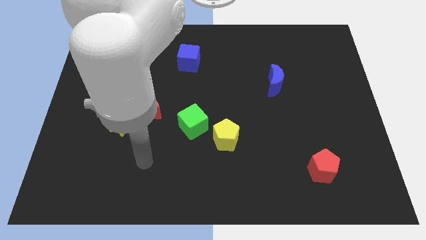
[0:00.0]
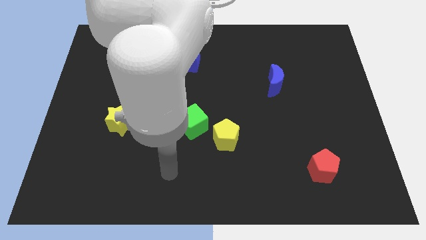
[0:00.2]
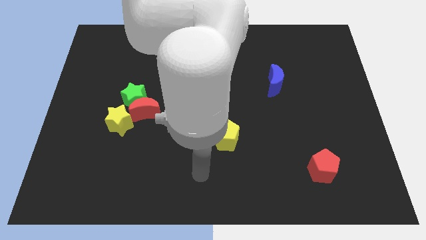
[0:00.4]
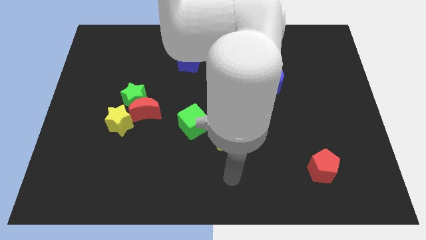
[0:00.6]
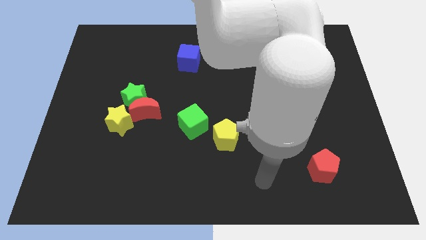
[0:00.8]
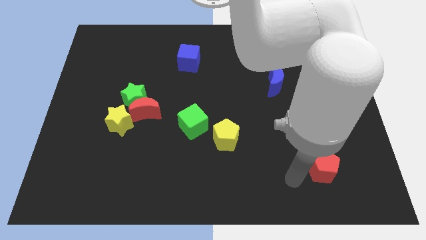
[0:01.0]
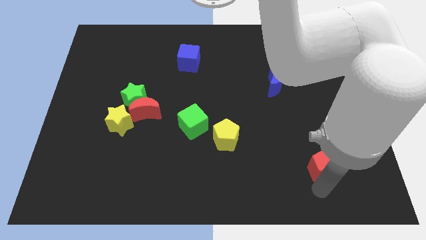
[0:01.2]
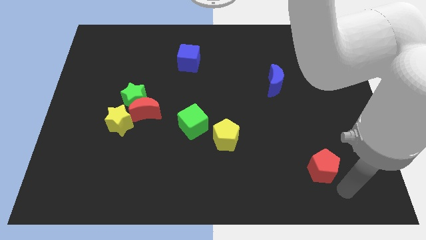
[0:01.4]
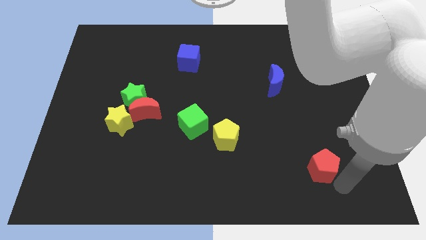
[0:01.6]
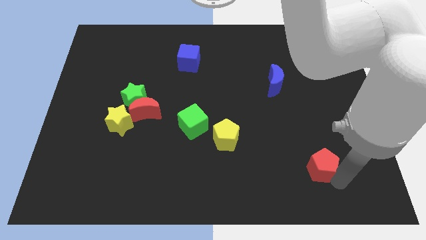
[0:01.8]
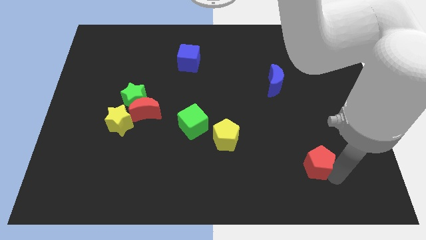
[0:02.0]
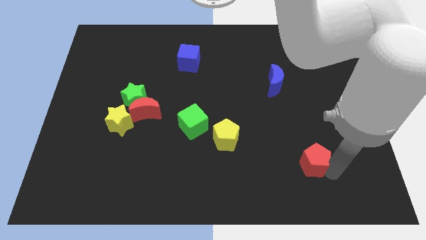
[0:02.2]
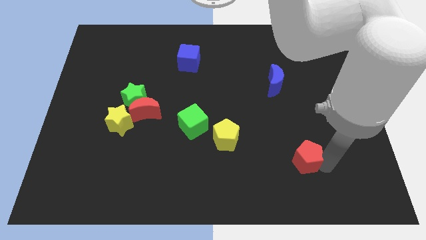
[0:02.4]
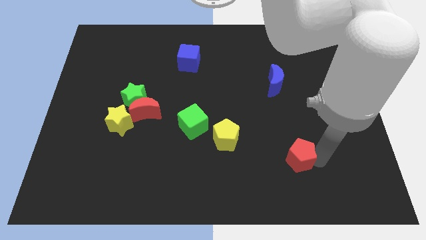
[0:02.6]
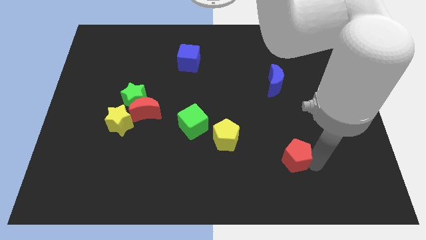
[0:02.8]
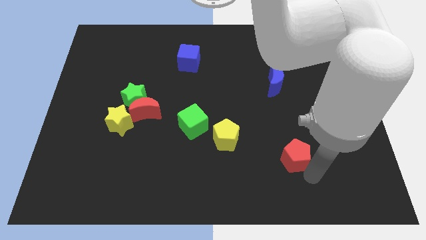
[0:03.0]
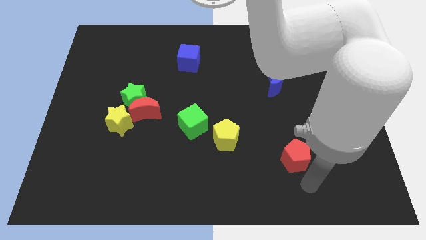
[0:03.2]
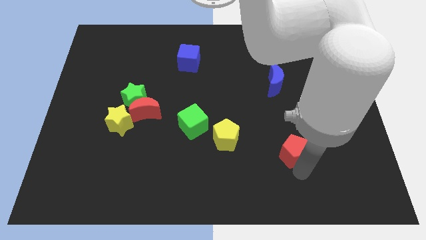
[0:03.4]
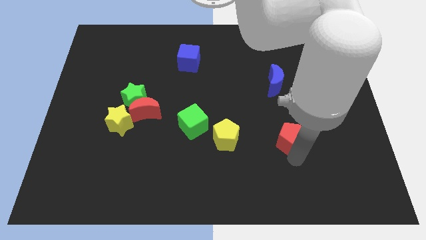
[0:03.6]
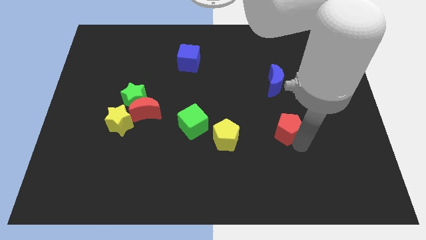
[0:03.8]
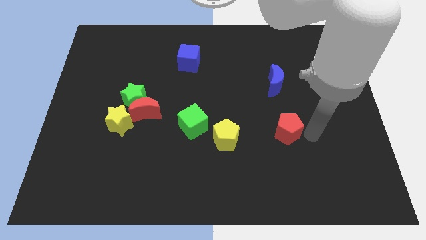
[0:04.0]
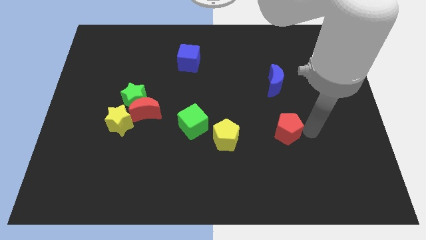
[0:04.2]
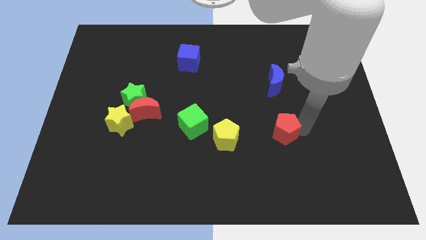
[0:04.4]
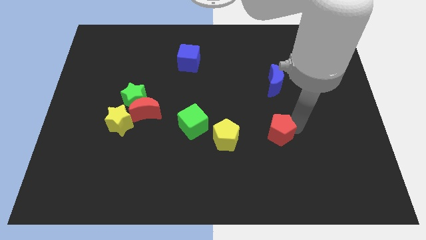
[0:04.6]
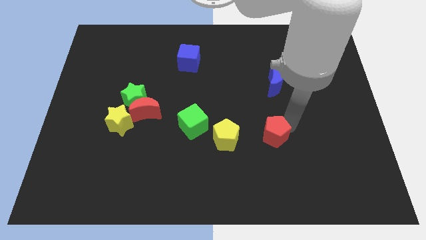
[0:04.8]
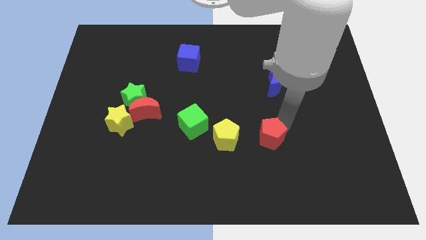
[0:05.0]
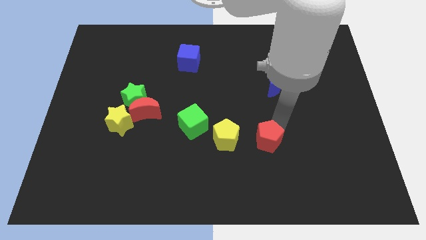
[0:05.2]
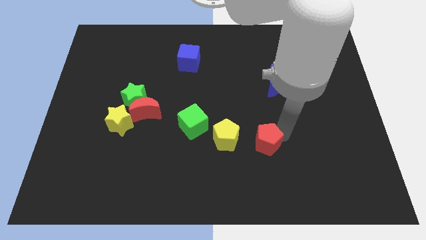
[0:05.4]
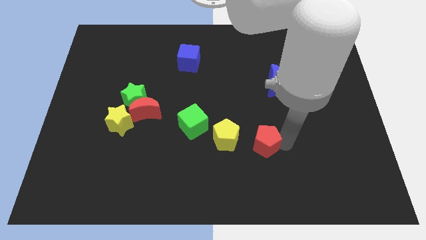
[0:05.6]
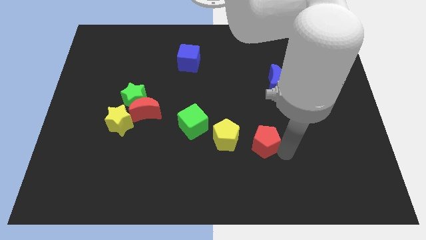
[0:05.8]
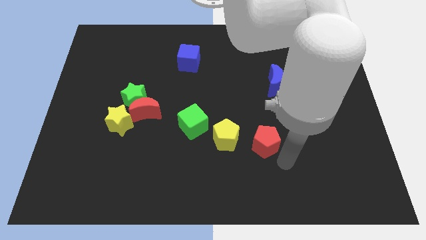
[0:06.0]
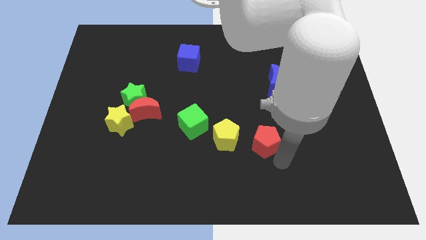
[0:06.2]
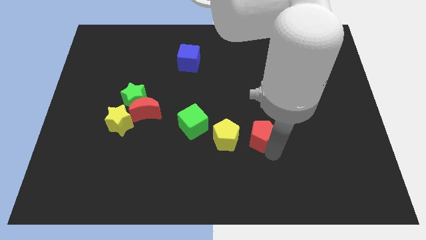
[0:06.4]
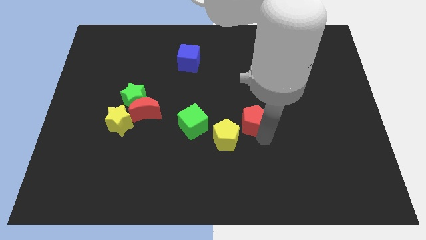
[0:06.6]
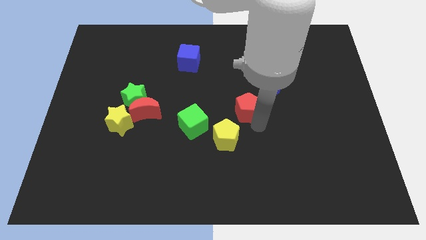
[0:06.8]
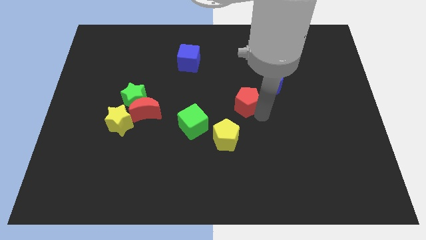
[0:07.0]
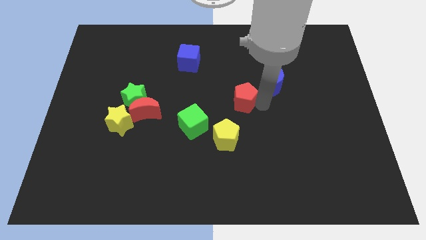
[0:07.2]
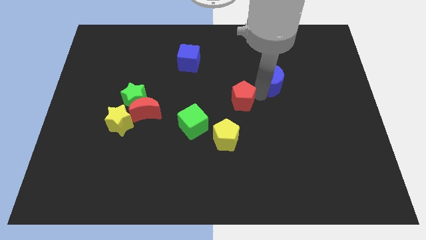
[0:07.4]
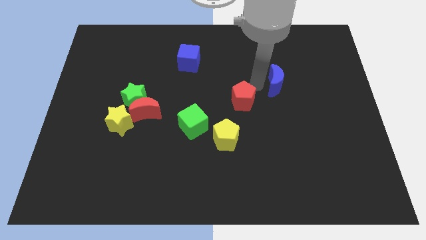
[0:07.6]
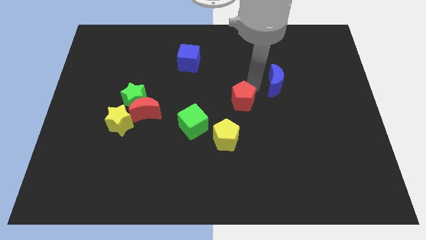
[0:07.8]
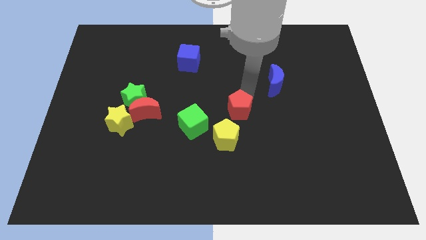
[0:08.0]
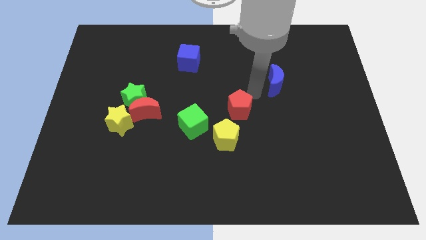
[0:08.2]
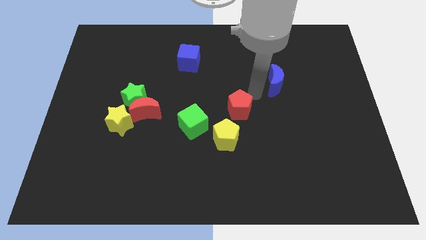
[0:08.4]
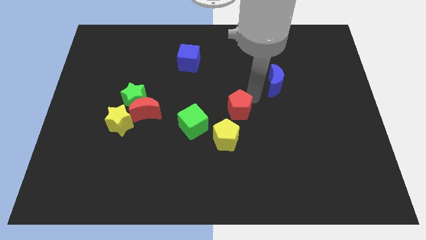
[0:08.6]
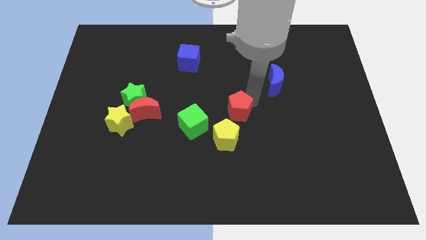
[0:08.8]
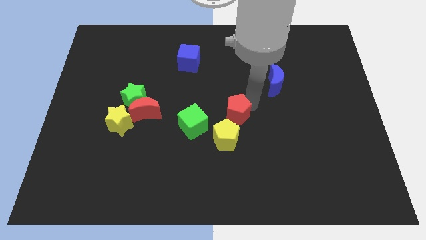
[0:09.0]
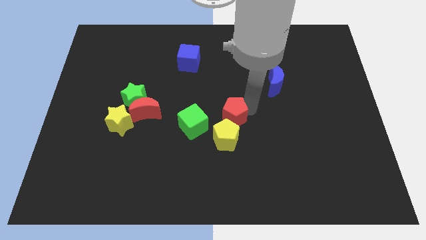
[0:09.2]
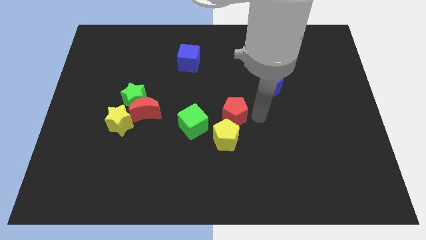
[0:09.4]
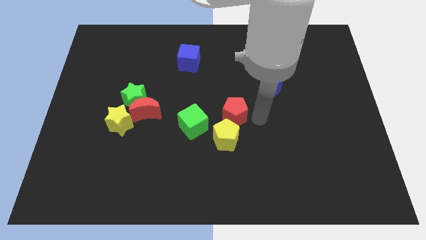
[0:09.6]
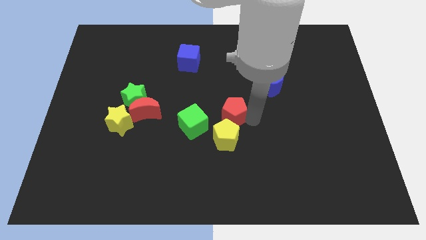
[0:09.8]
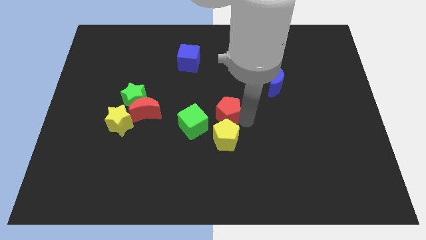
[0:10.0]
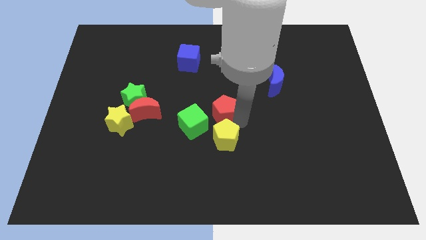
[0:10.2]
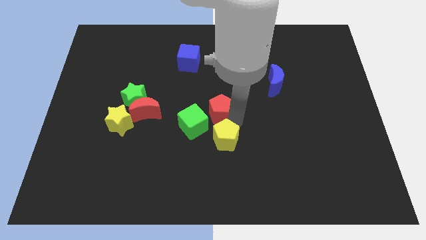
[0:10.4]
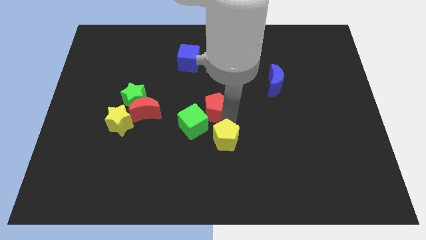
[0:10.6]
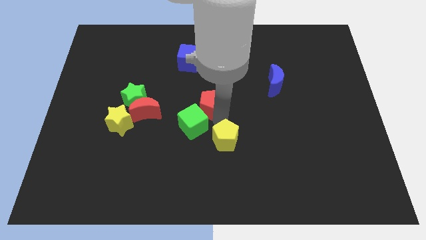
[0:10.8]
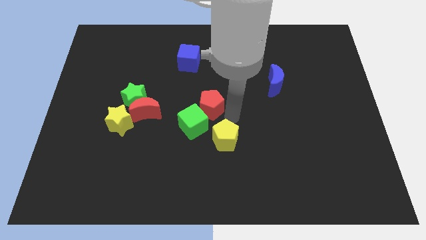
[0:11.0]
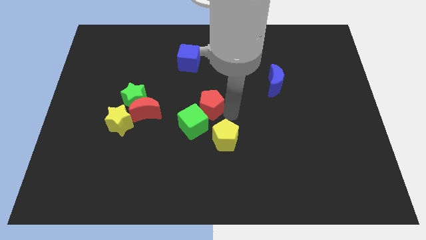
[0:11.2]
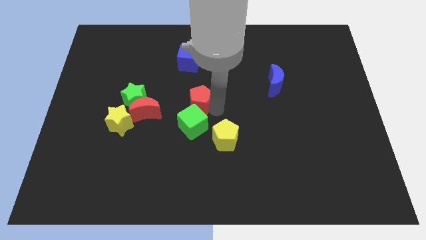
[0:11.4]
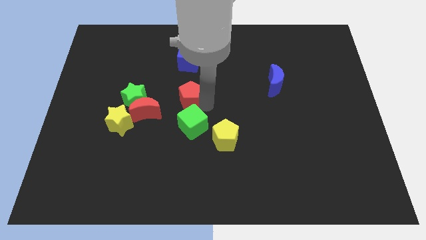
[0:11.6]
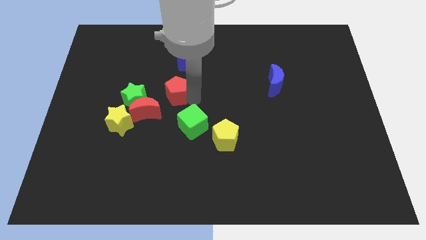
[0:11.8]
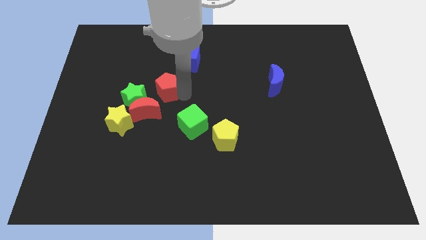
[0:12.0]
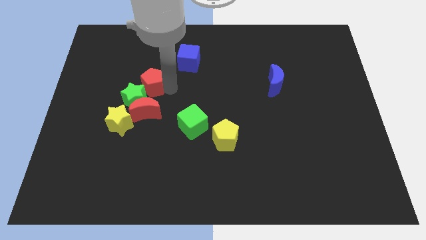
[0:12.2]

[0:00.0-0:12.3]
put the red pentagon close to the green star

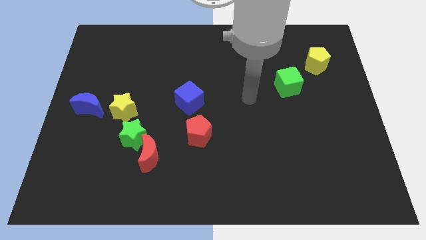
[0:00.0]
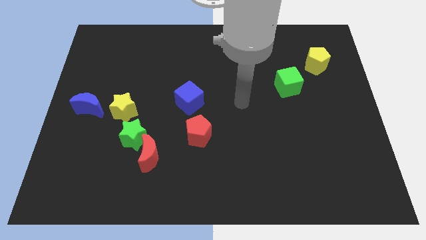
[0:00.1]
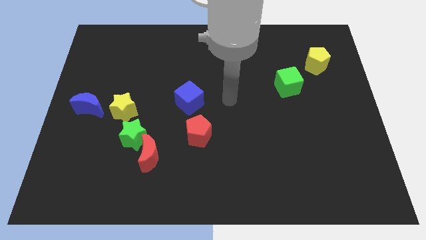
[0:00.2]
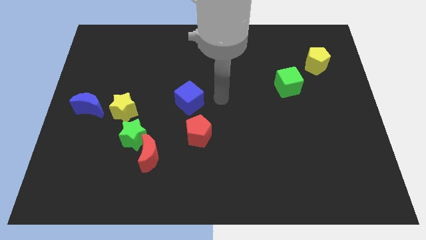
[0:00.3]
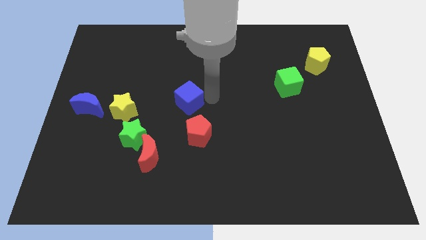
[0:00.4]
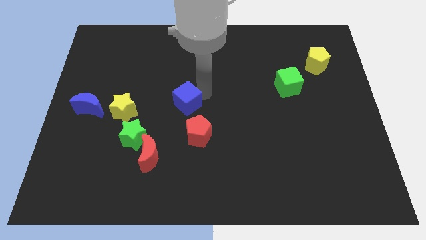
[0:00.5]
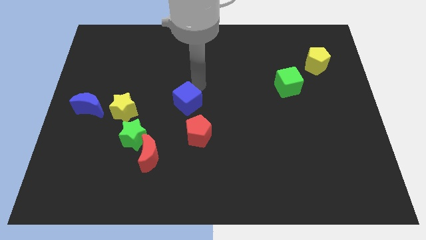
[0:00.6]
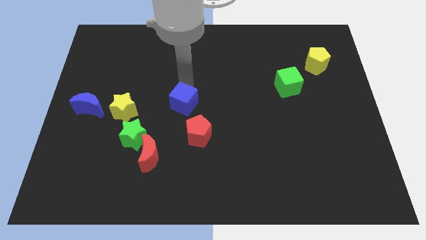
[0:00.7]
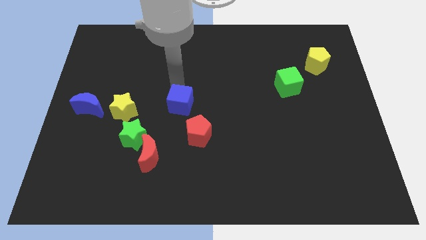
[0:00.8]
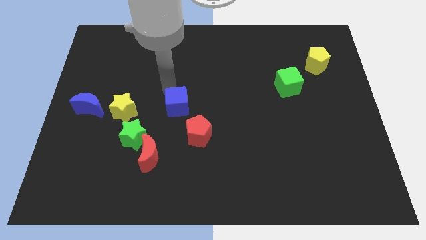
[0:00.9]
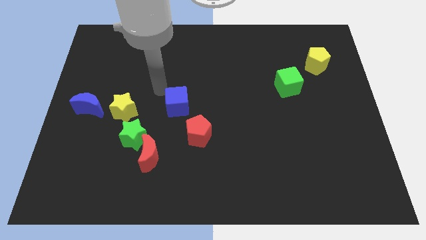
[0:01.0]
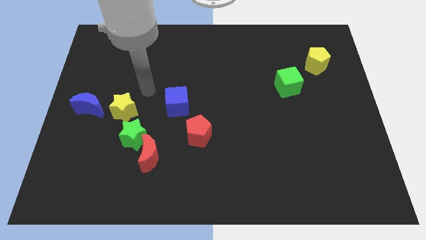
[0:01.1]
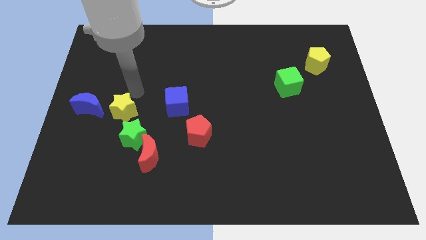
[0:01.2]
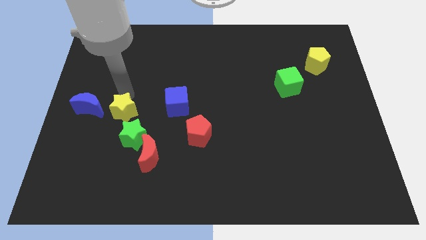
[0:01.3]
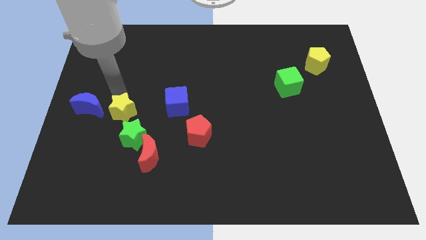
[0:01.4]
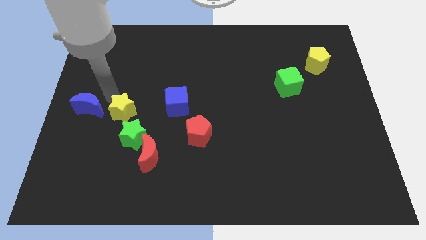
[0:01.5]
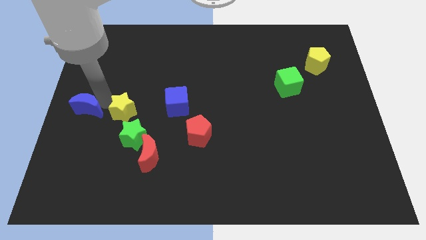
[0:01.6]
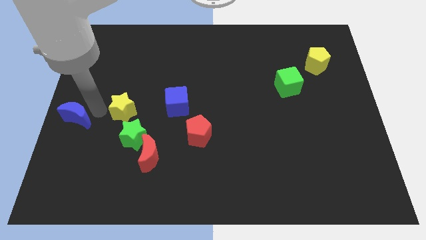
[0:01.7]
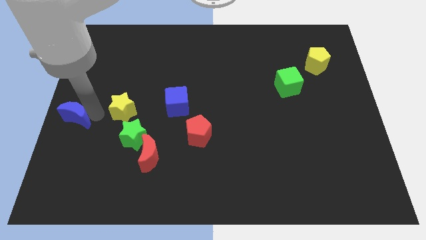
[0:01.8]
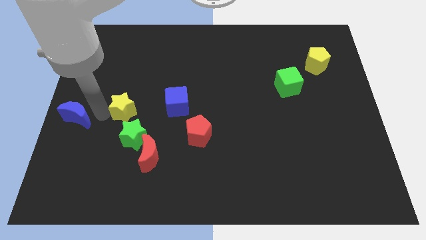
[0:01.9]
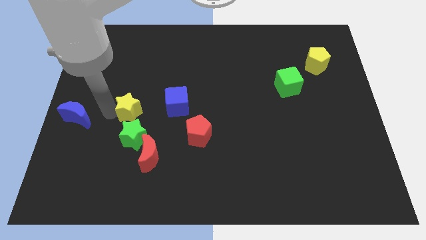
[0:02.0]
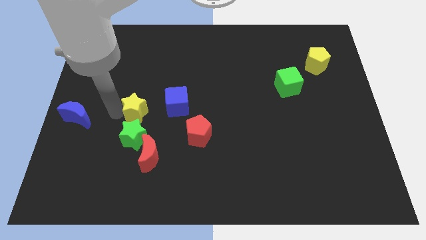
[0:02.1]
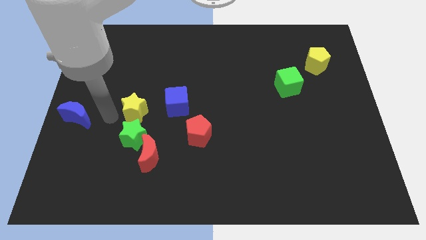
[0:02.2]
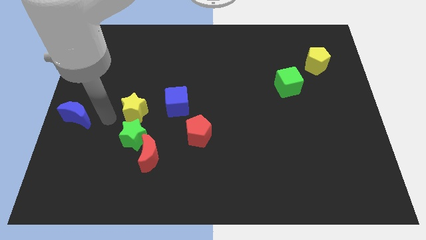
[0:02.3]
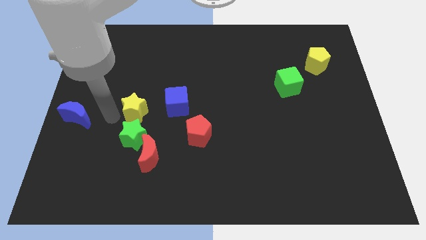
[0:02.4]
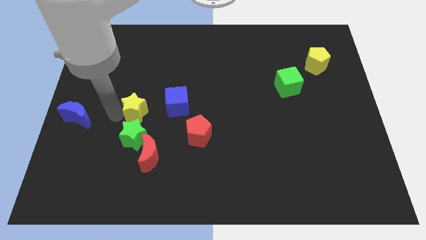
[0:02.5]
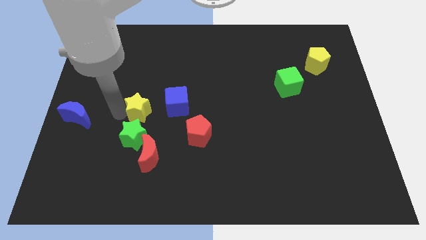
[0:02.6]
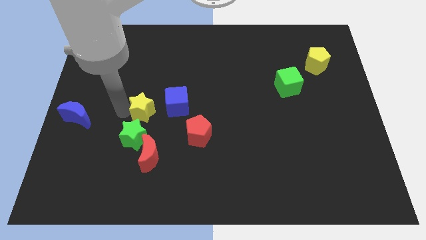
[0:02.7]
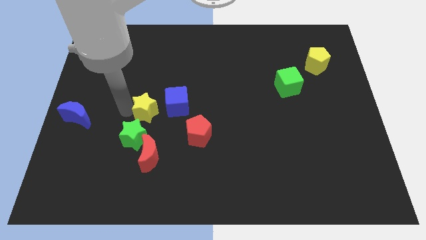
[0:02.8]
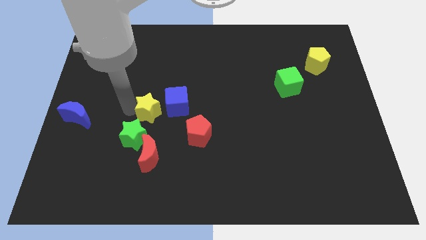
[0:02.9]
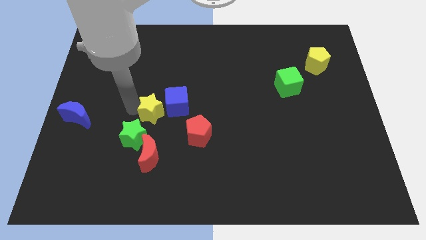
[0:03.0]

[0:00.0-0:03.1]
slide the yellow star close to the blue cube
